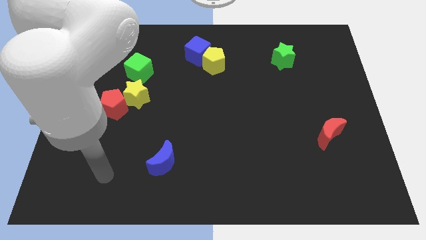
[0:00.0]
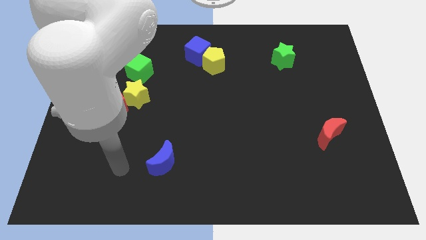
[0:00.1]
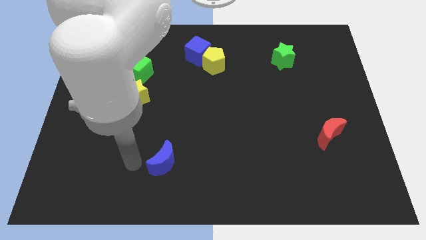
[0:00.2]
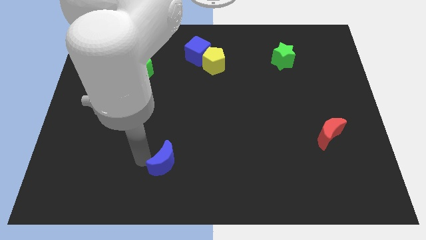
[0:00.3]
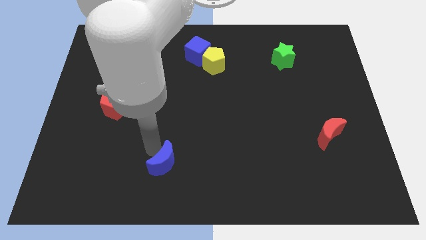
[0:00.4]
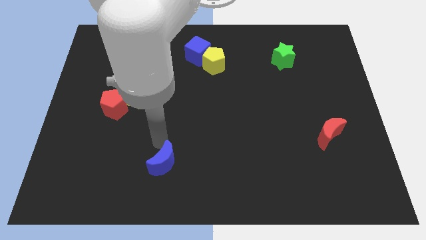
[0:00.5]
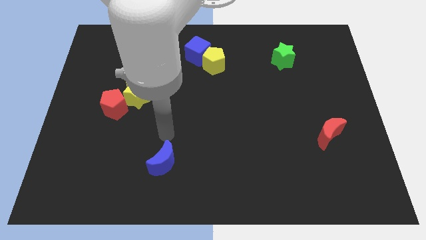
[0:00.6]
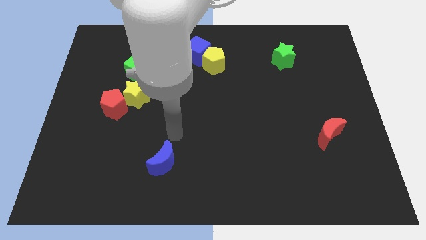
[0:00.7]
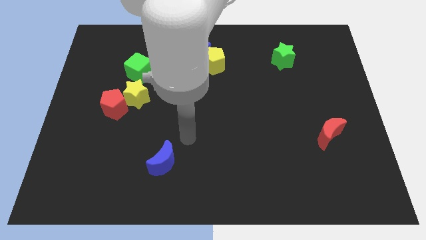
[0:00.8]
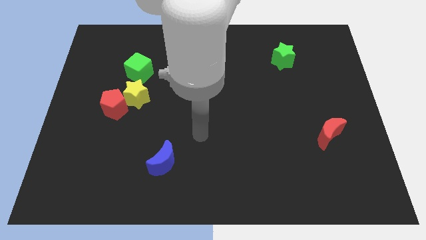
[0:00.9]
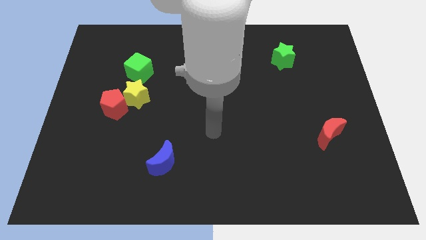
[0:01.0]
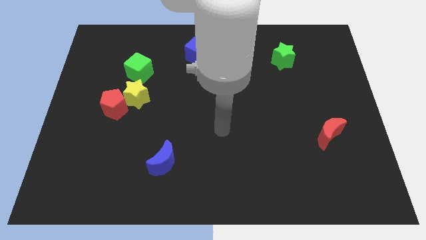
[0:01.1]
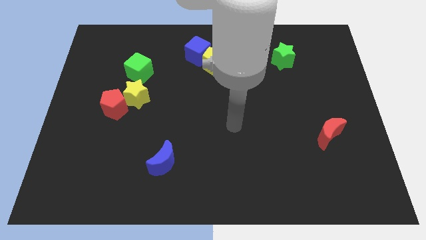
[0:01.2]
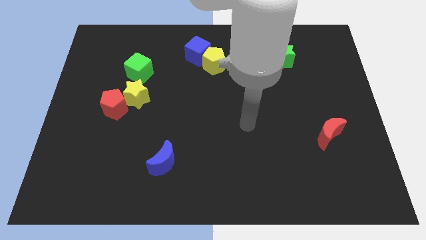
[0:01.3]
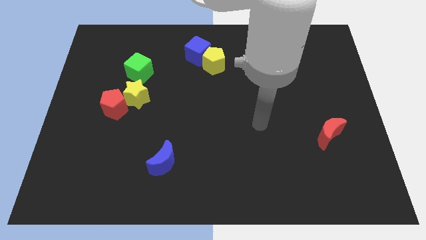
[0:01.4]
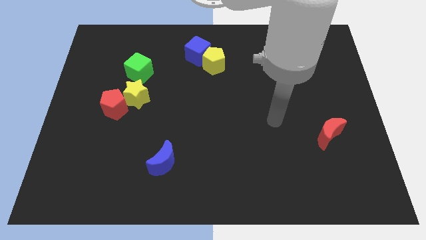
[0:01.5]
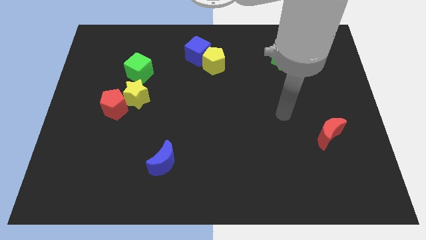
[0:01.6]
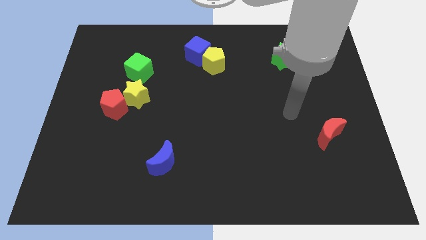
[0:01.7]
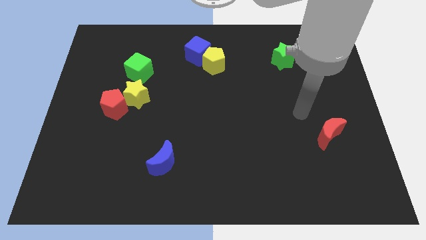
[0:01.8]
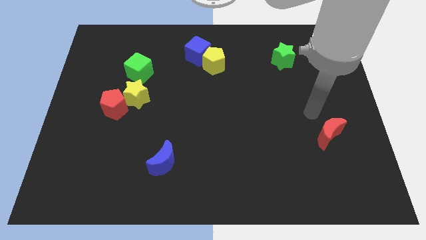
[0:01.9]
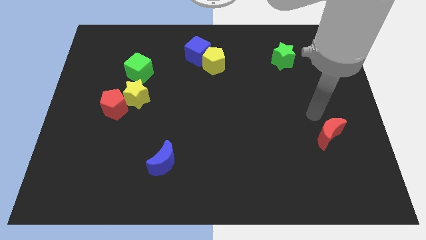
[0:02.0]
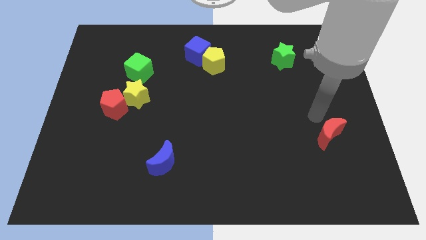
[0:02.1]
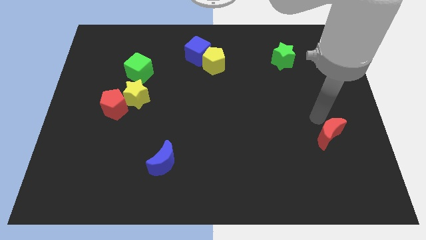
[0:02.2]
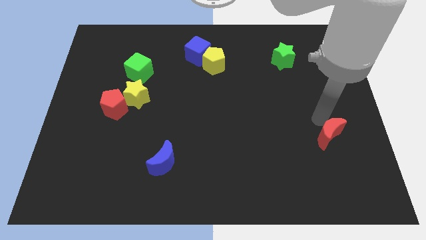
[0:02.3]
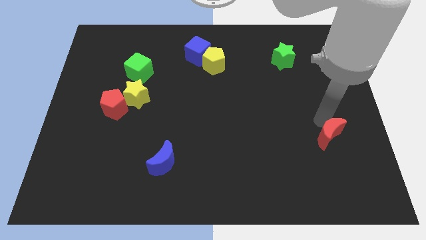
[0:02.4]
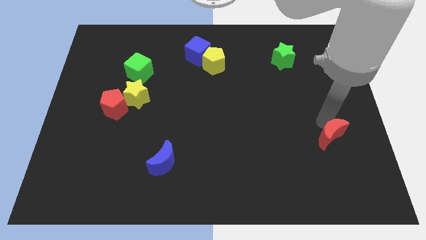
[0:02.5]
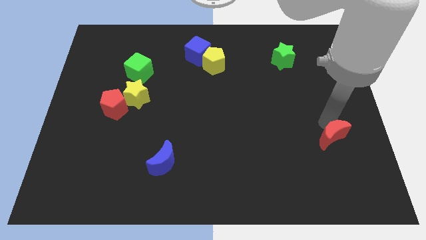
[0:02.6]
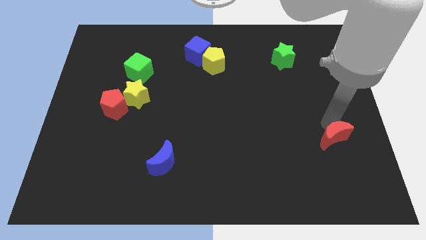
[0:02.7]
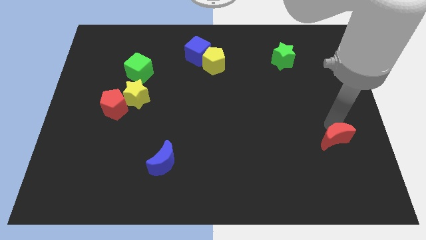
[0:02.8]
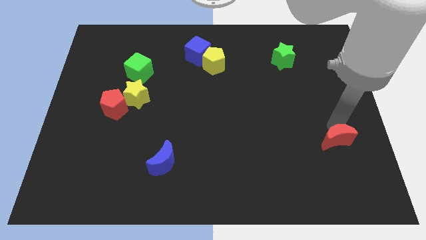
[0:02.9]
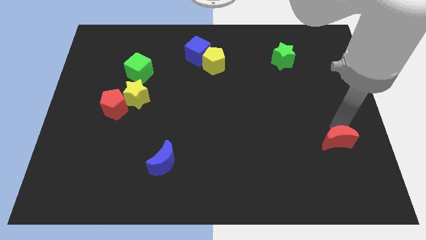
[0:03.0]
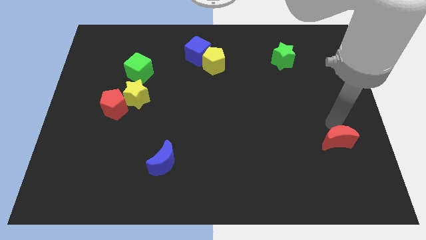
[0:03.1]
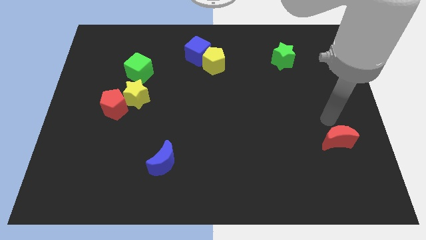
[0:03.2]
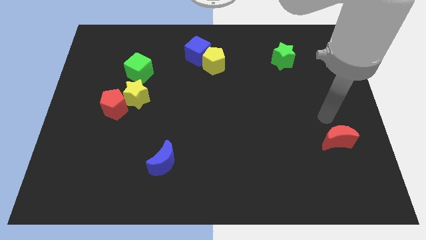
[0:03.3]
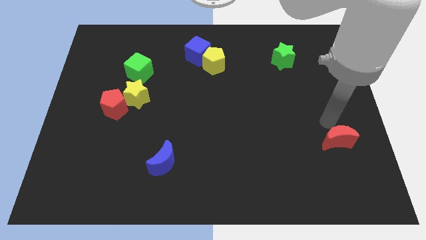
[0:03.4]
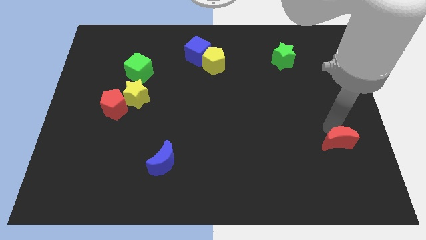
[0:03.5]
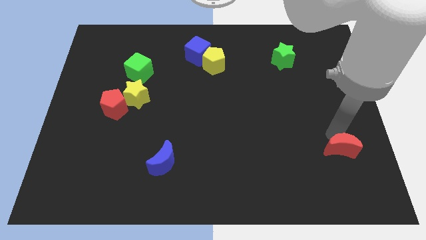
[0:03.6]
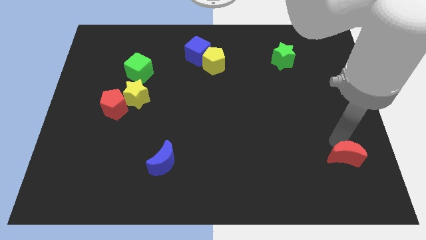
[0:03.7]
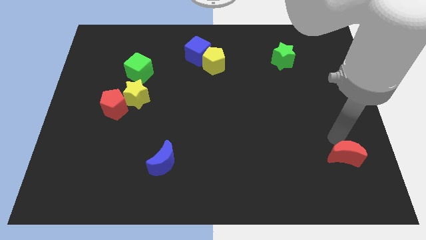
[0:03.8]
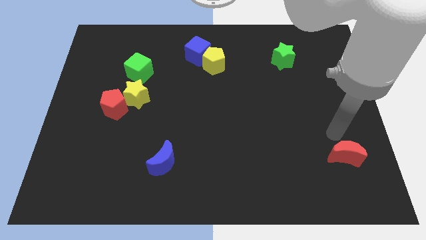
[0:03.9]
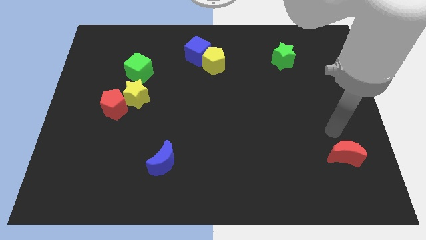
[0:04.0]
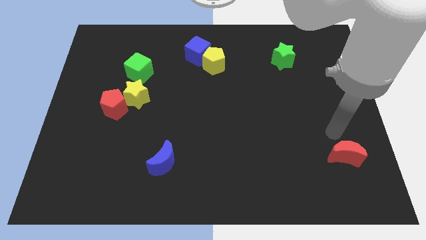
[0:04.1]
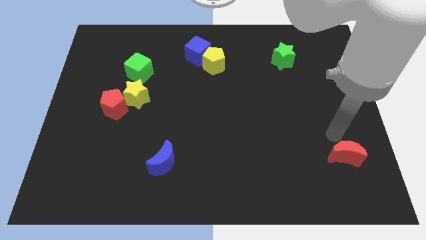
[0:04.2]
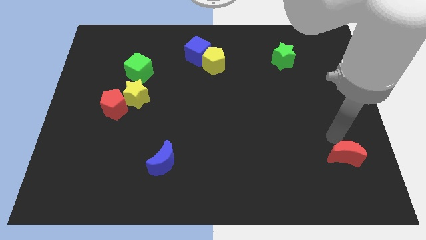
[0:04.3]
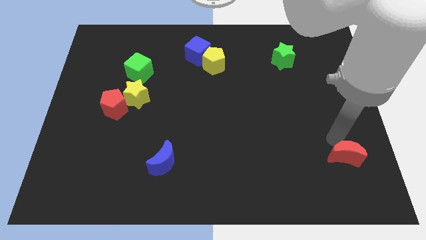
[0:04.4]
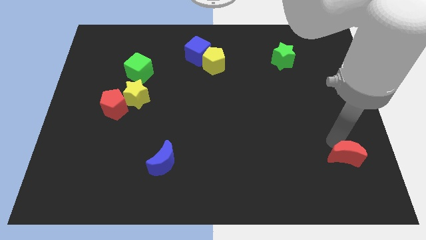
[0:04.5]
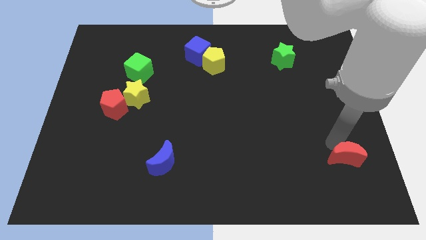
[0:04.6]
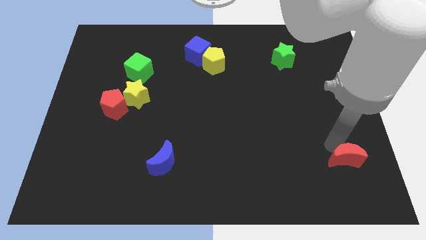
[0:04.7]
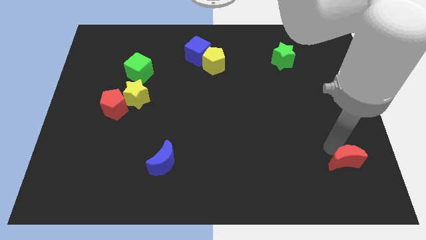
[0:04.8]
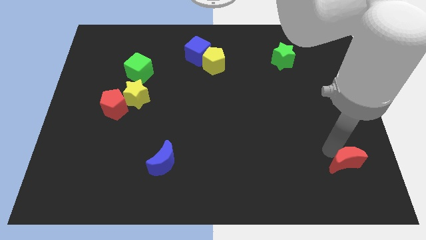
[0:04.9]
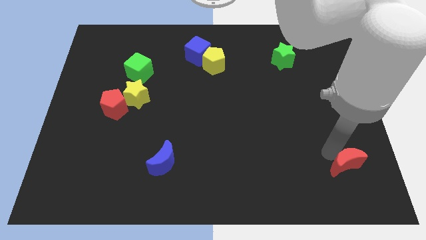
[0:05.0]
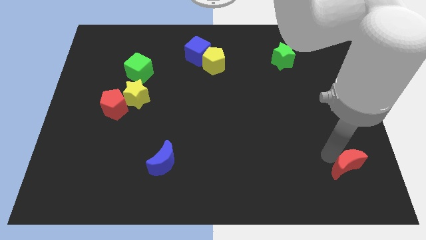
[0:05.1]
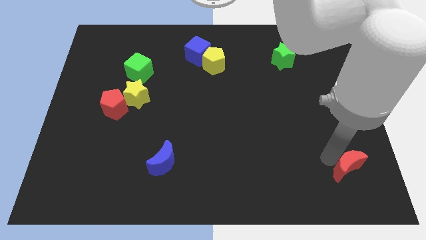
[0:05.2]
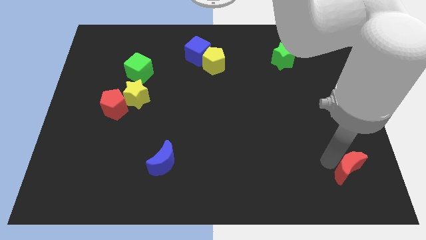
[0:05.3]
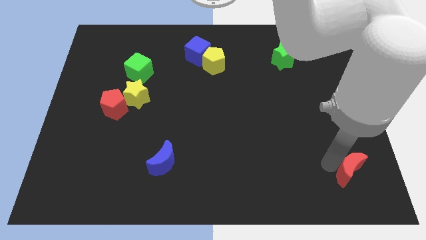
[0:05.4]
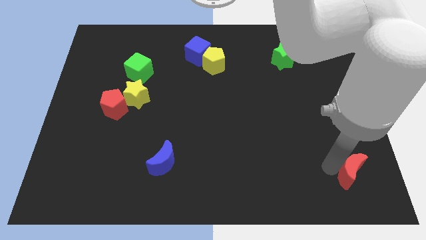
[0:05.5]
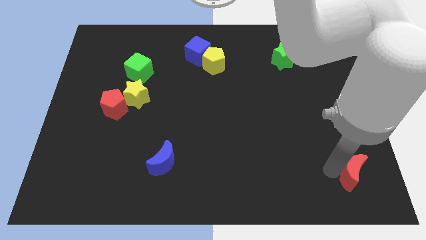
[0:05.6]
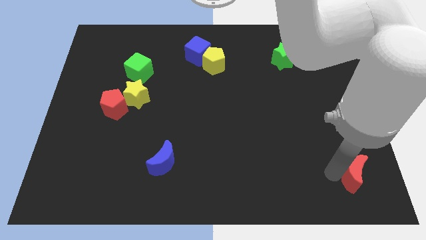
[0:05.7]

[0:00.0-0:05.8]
slide the red moon to the bottom right corner
